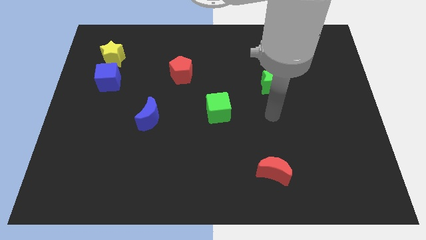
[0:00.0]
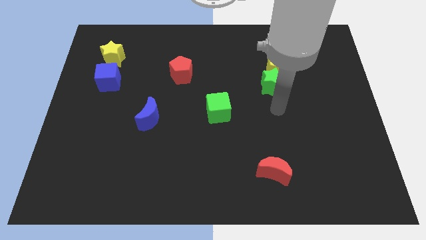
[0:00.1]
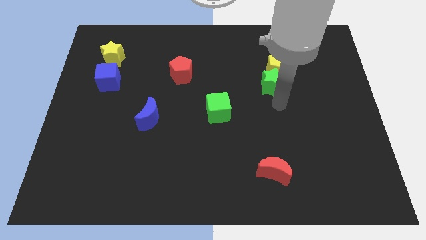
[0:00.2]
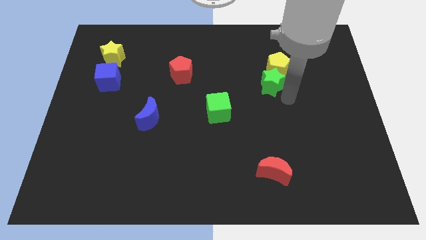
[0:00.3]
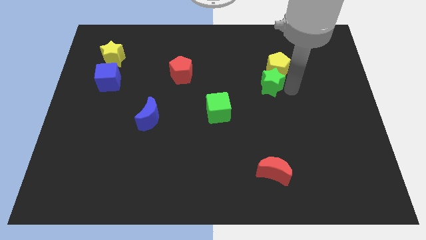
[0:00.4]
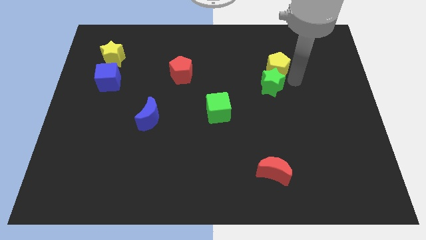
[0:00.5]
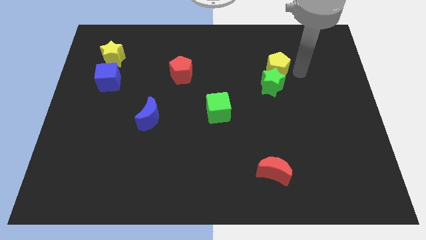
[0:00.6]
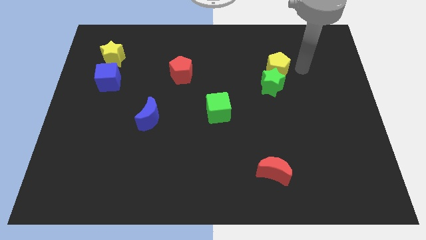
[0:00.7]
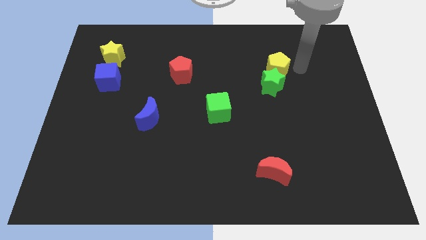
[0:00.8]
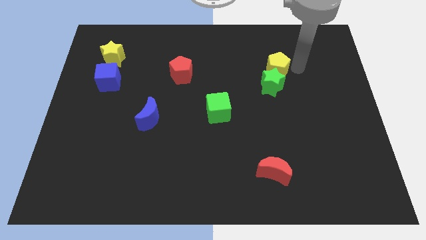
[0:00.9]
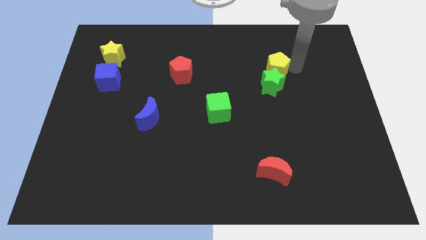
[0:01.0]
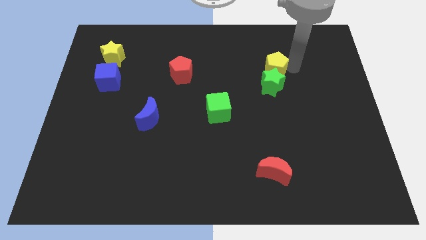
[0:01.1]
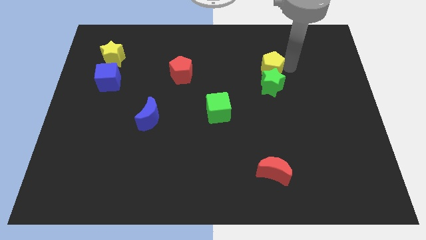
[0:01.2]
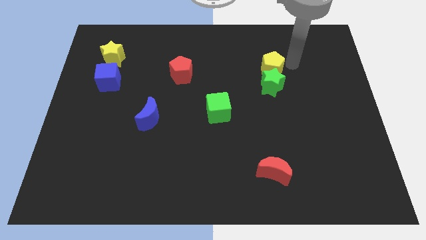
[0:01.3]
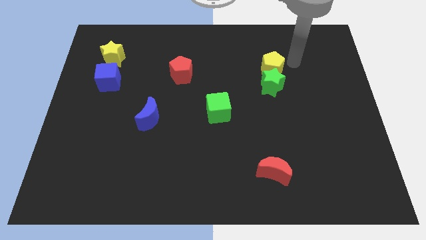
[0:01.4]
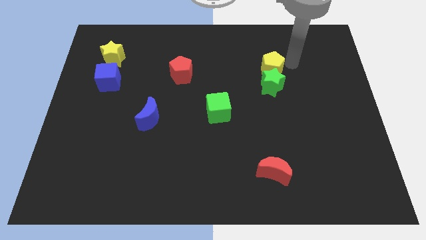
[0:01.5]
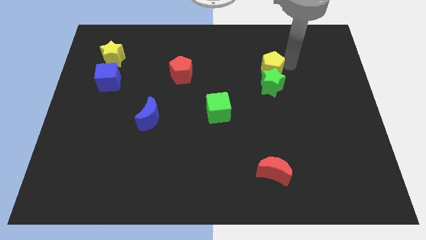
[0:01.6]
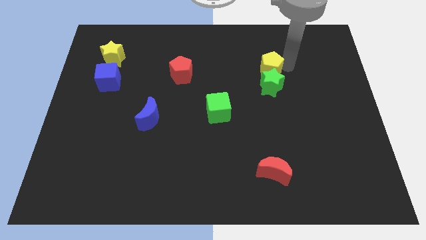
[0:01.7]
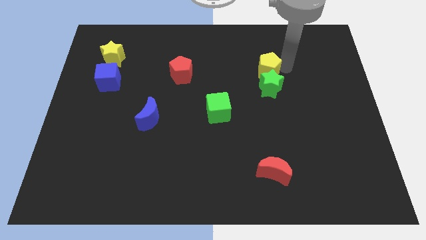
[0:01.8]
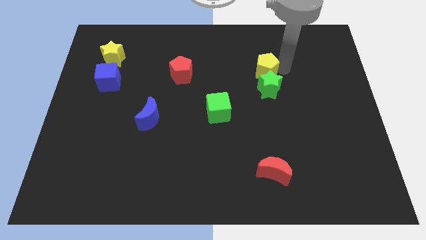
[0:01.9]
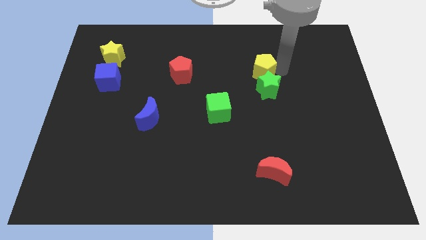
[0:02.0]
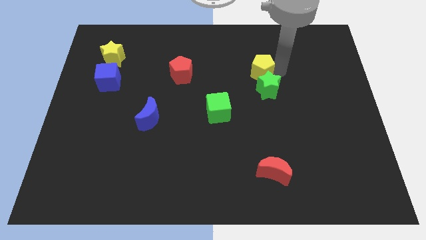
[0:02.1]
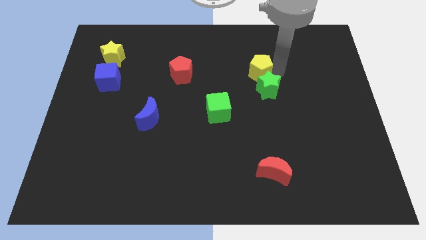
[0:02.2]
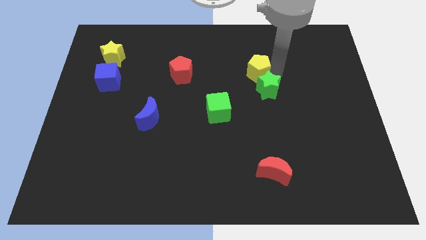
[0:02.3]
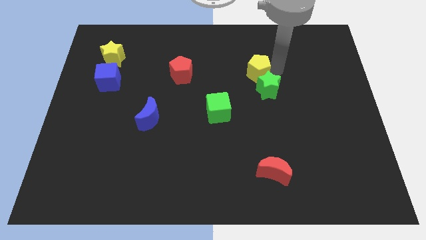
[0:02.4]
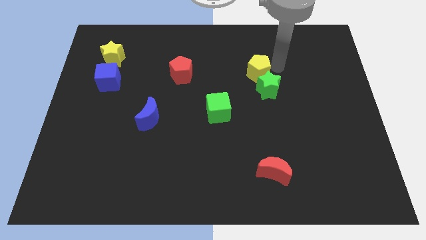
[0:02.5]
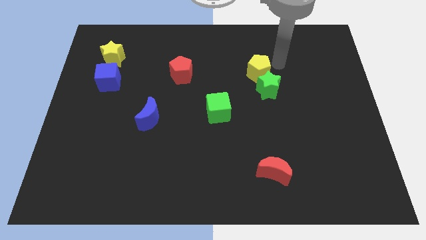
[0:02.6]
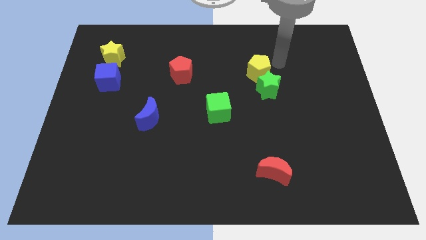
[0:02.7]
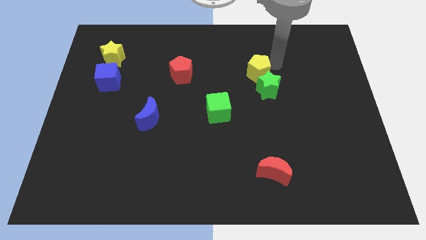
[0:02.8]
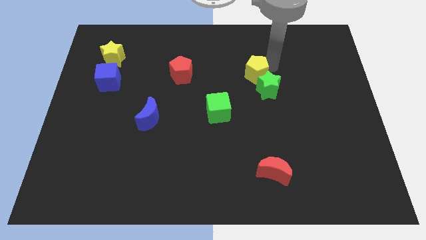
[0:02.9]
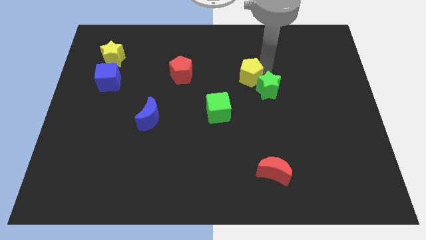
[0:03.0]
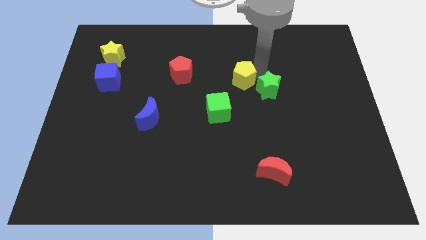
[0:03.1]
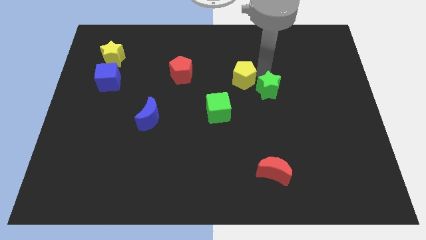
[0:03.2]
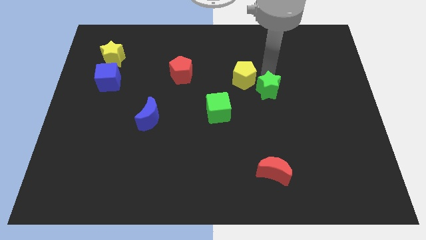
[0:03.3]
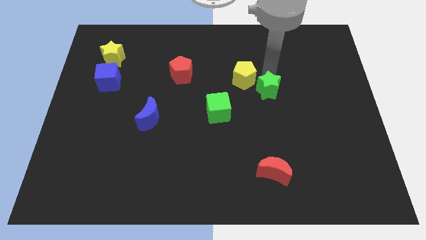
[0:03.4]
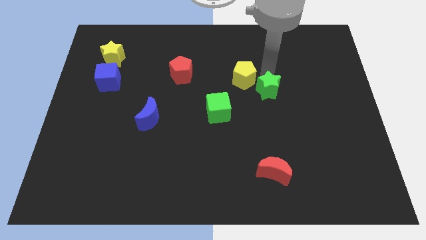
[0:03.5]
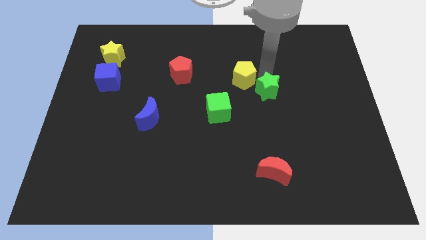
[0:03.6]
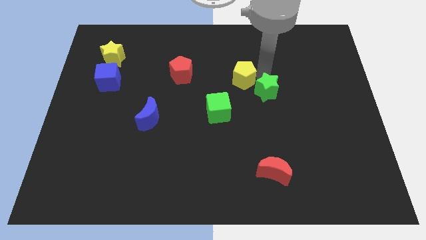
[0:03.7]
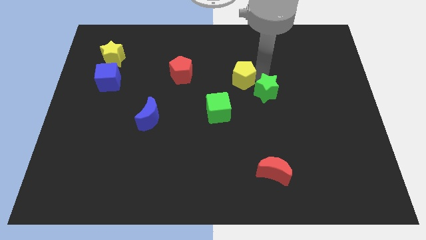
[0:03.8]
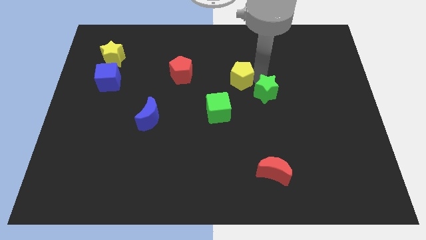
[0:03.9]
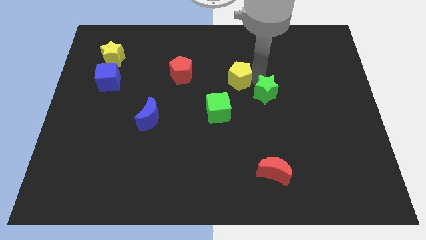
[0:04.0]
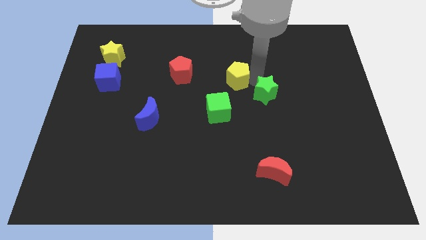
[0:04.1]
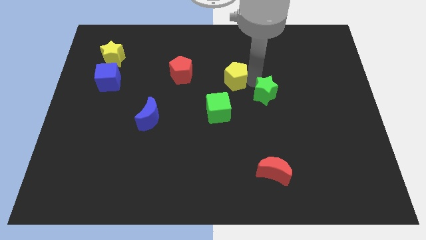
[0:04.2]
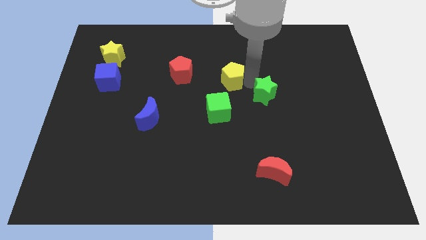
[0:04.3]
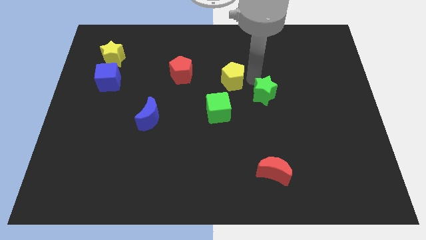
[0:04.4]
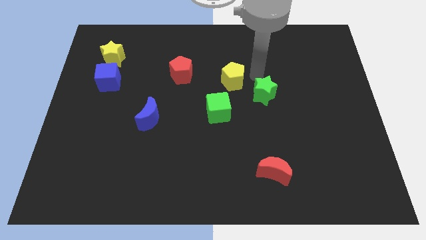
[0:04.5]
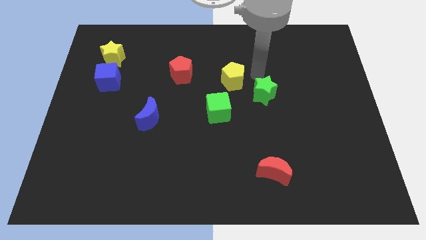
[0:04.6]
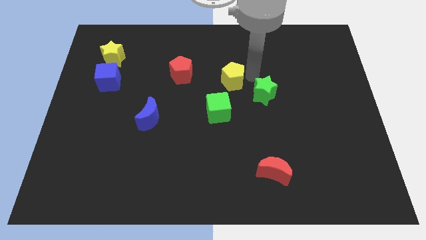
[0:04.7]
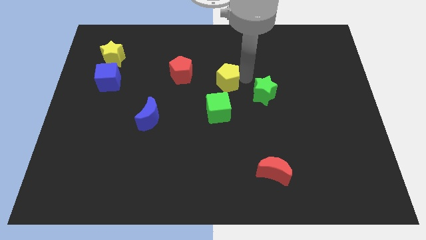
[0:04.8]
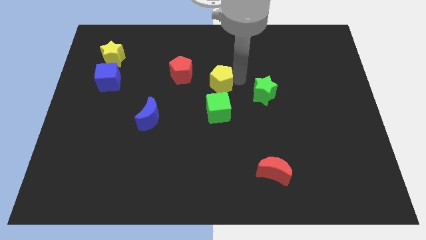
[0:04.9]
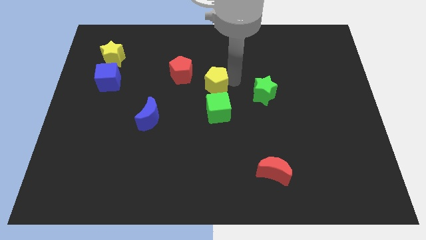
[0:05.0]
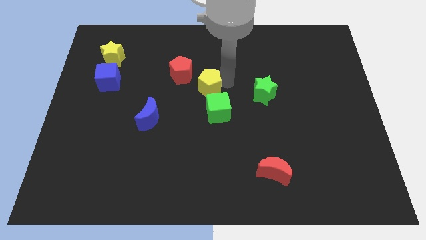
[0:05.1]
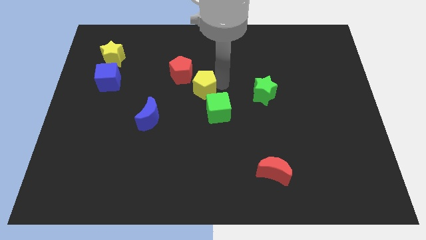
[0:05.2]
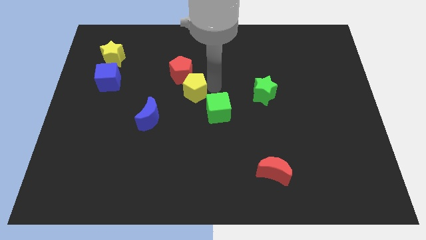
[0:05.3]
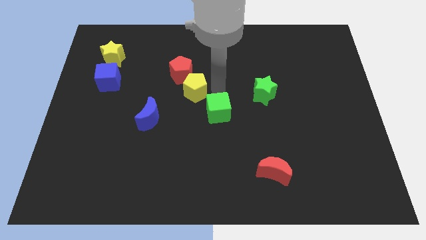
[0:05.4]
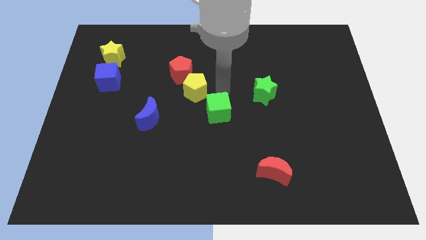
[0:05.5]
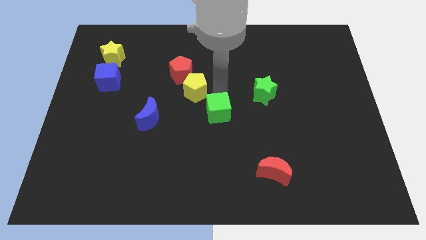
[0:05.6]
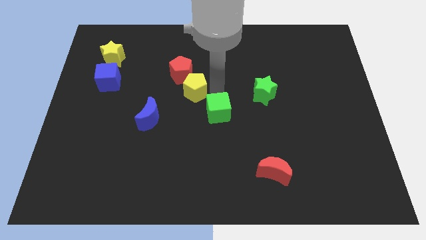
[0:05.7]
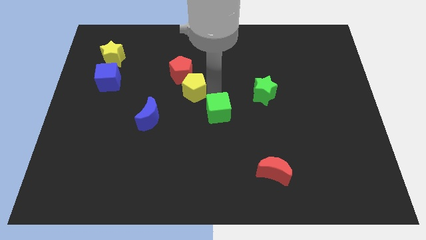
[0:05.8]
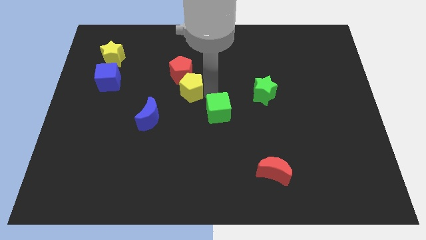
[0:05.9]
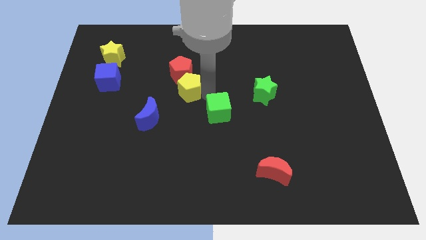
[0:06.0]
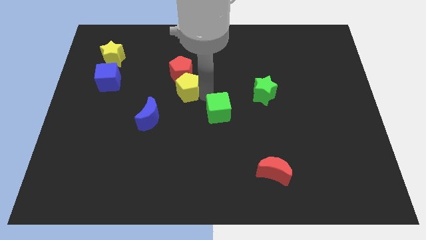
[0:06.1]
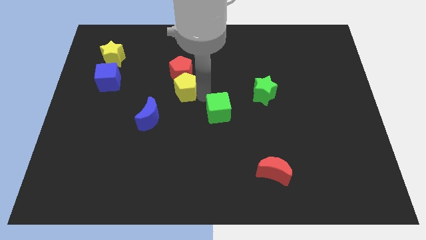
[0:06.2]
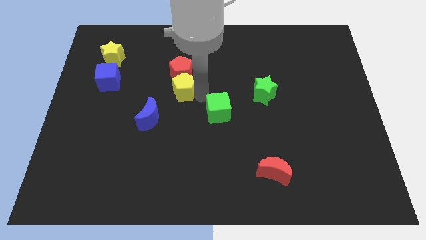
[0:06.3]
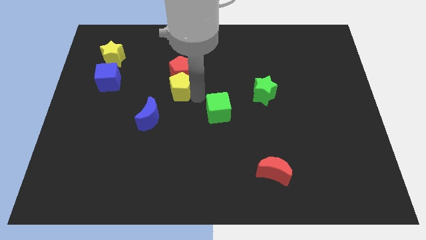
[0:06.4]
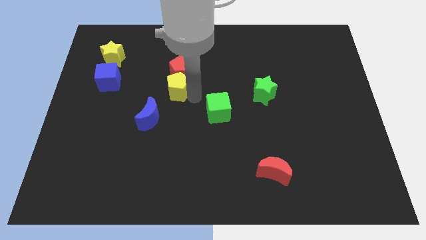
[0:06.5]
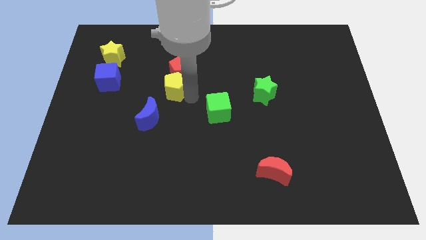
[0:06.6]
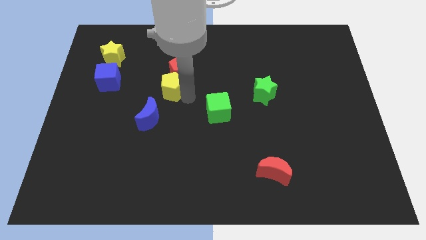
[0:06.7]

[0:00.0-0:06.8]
push the yellow pentagon above the blue moon
